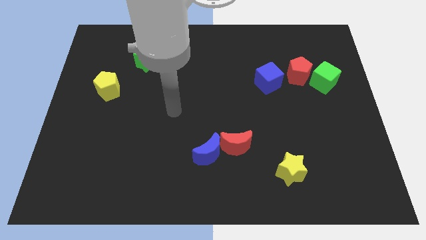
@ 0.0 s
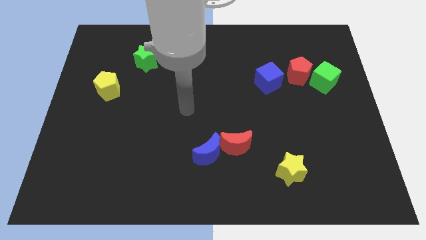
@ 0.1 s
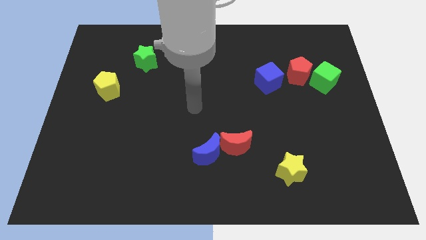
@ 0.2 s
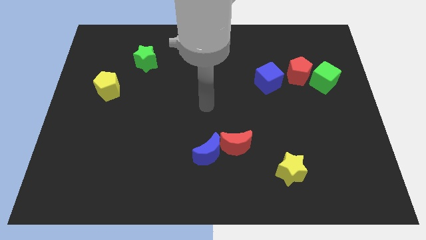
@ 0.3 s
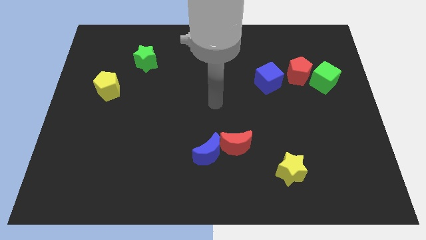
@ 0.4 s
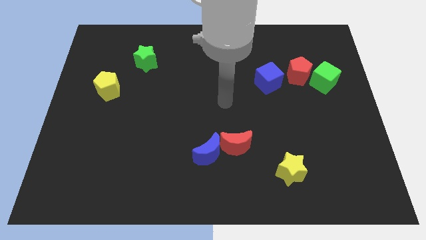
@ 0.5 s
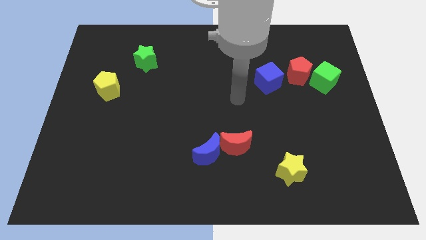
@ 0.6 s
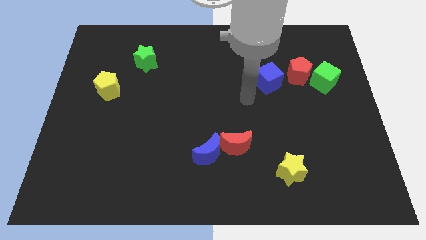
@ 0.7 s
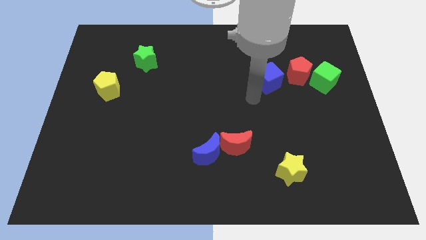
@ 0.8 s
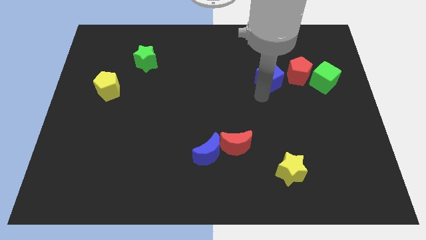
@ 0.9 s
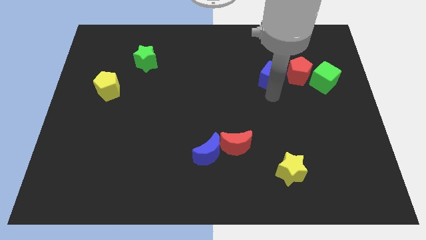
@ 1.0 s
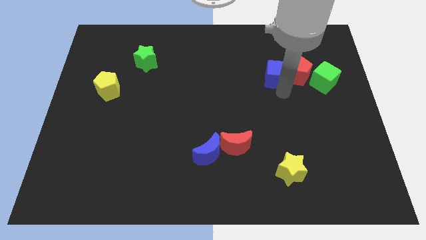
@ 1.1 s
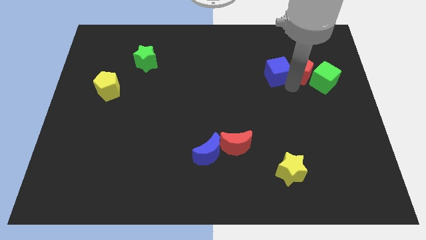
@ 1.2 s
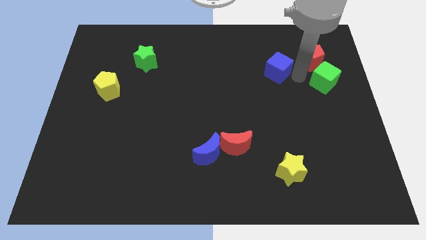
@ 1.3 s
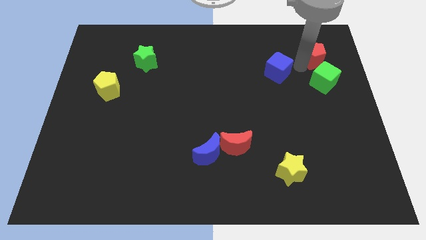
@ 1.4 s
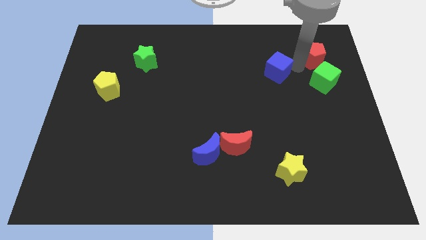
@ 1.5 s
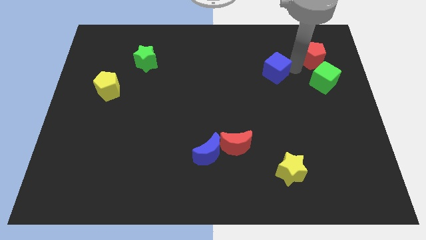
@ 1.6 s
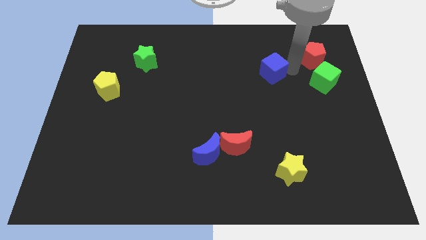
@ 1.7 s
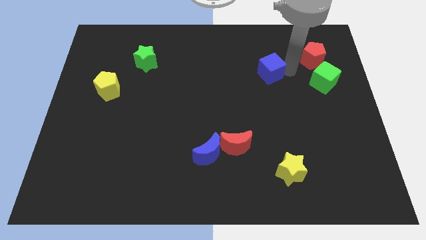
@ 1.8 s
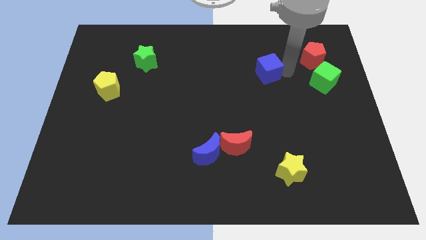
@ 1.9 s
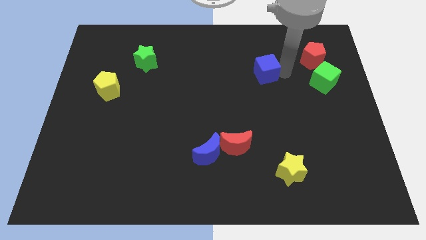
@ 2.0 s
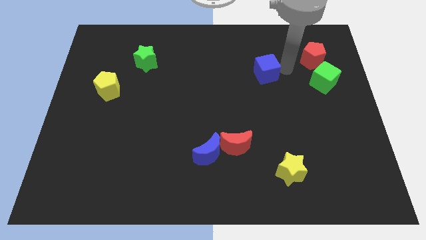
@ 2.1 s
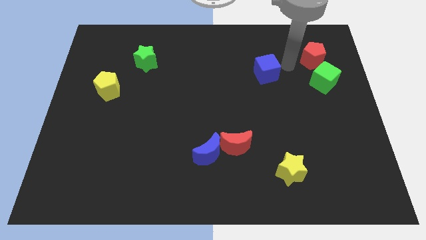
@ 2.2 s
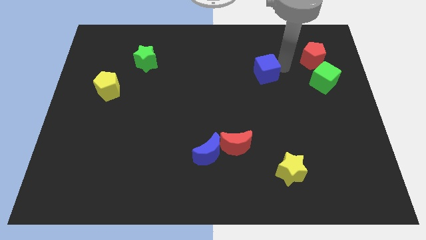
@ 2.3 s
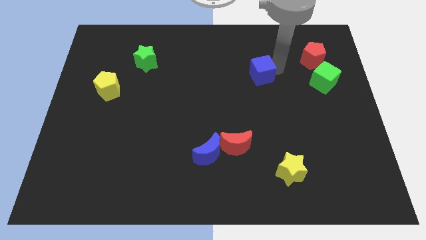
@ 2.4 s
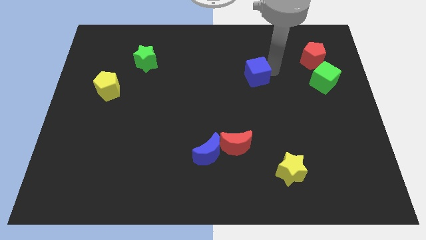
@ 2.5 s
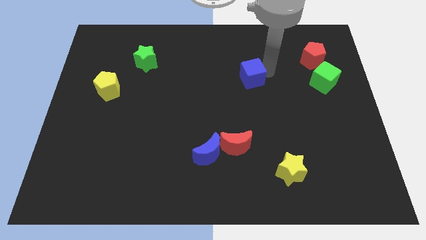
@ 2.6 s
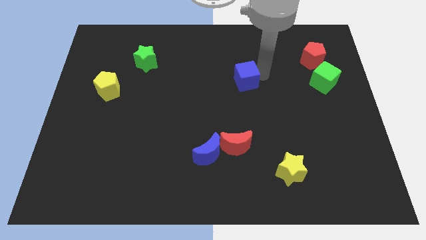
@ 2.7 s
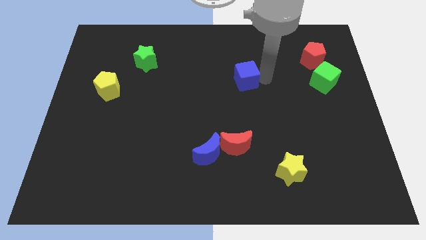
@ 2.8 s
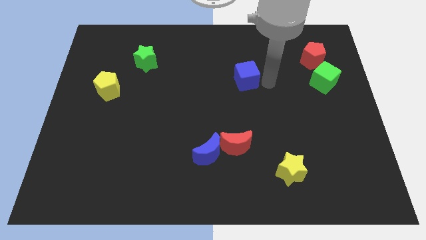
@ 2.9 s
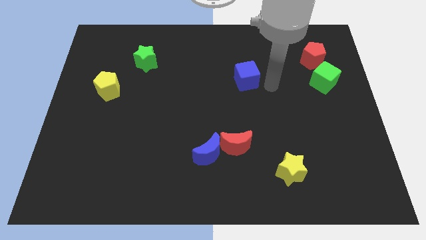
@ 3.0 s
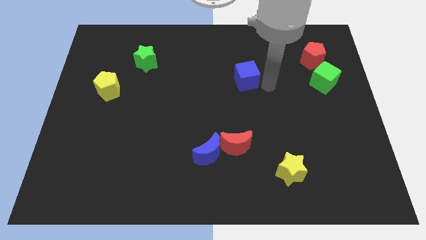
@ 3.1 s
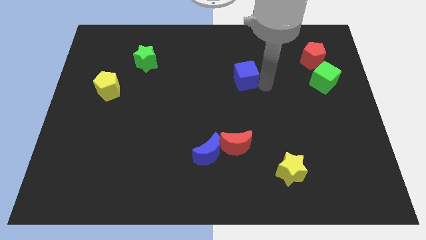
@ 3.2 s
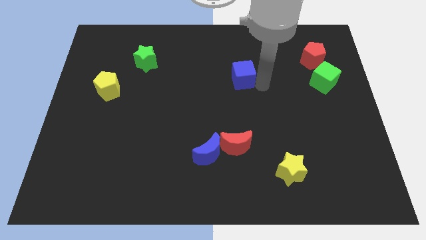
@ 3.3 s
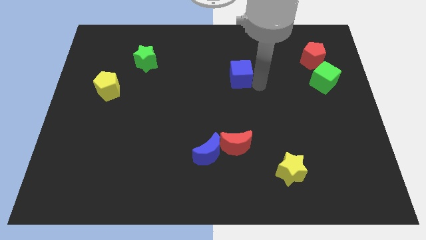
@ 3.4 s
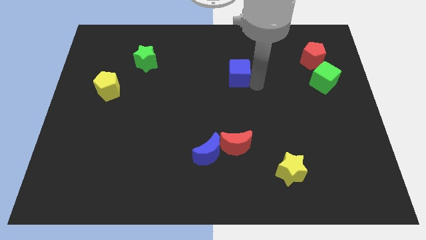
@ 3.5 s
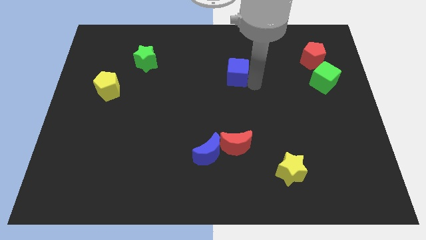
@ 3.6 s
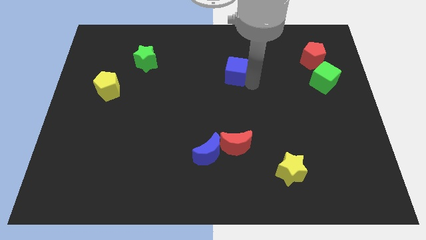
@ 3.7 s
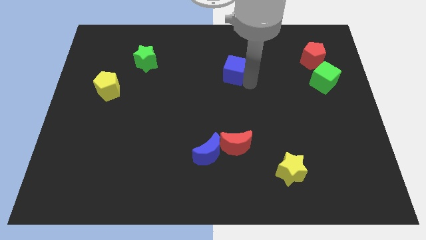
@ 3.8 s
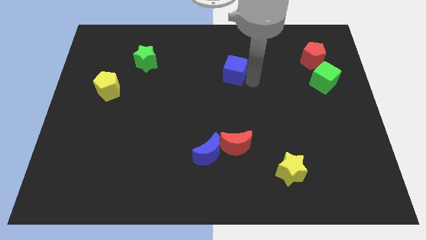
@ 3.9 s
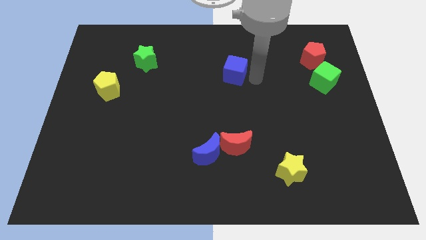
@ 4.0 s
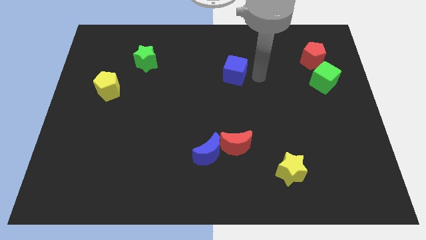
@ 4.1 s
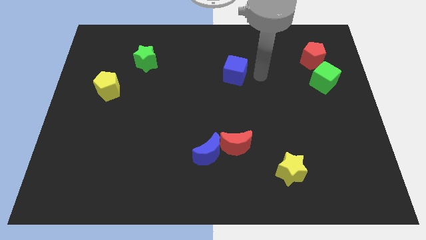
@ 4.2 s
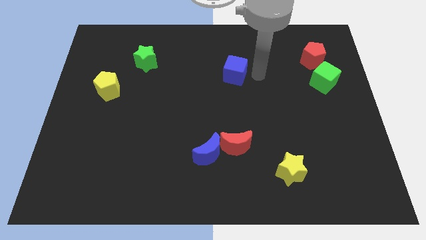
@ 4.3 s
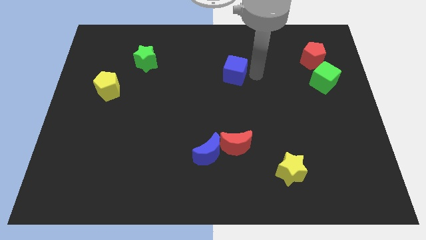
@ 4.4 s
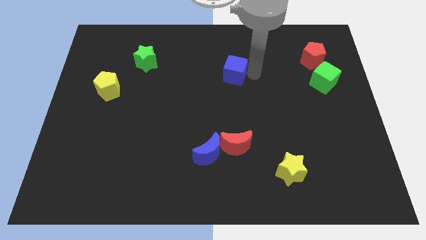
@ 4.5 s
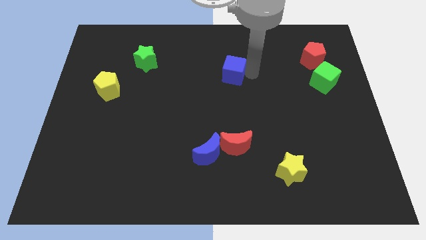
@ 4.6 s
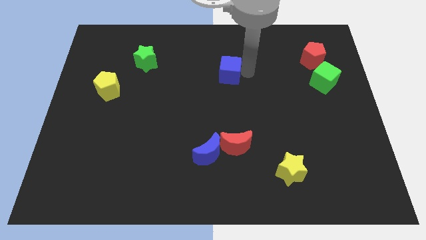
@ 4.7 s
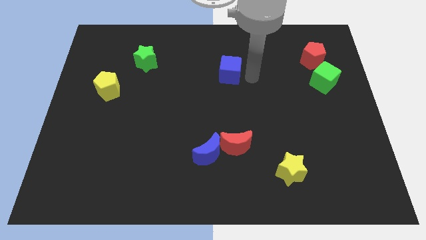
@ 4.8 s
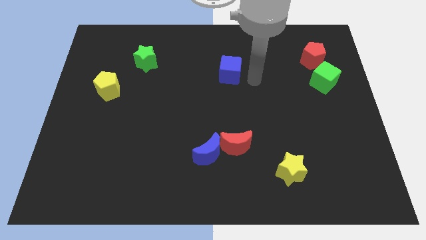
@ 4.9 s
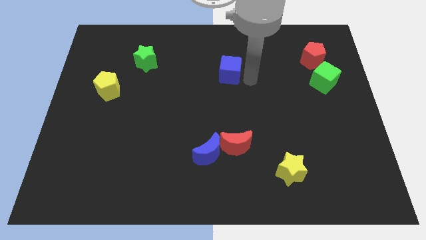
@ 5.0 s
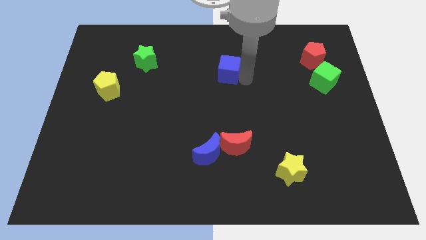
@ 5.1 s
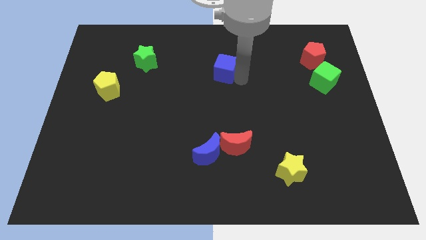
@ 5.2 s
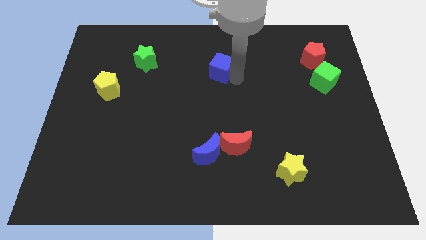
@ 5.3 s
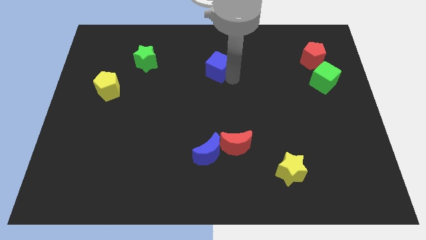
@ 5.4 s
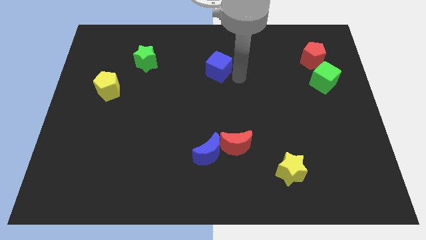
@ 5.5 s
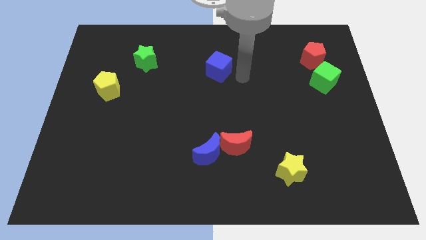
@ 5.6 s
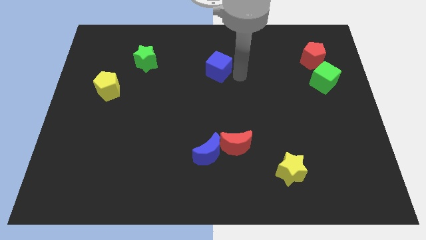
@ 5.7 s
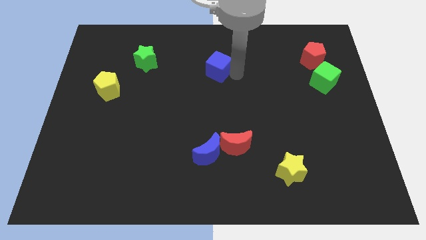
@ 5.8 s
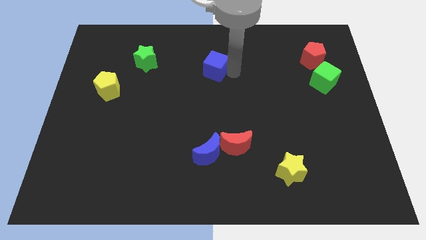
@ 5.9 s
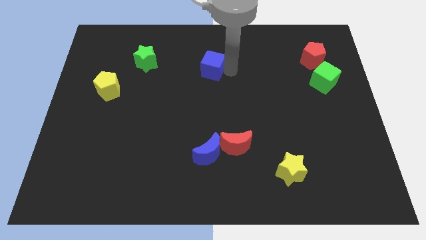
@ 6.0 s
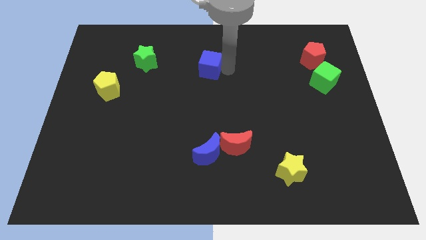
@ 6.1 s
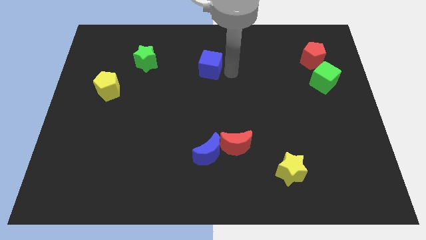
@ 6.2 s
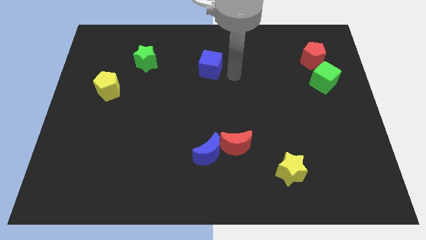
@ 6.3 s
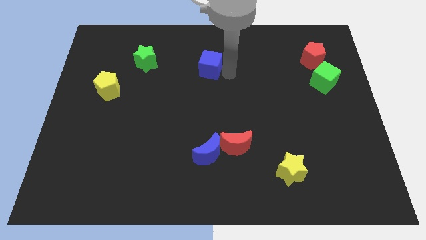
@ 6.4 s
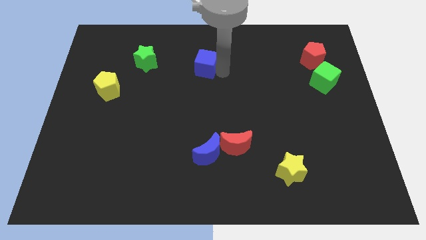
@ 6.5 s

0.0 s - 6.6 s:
slide the blue cube to the right side of the green star

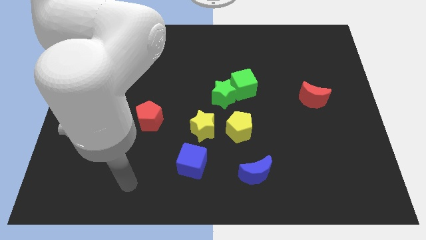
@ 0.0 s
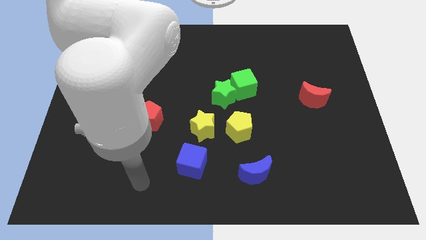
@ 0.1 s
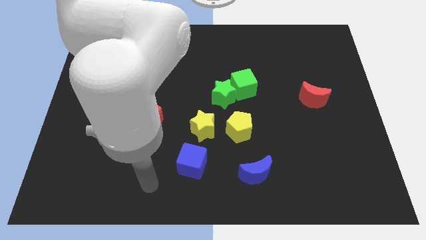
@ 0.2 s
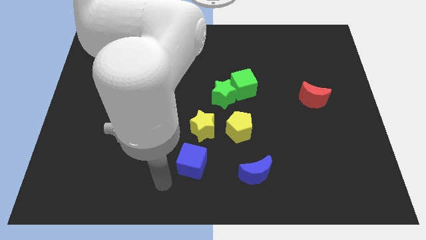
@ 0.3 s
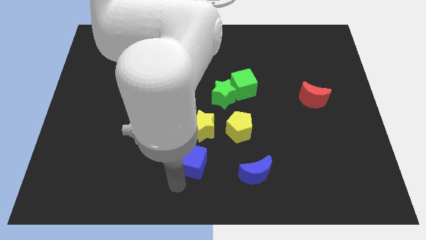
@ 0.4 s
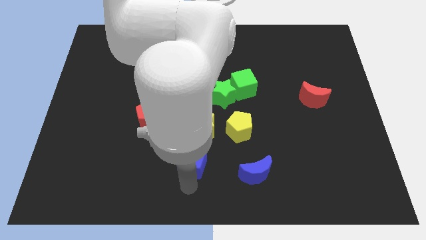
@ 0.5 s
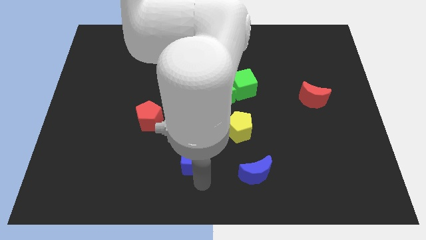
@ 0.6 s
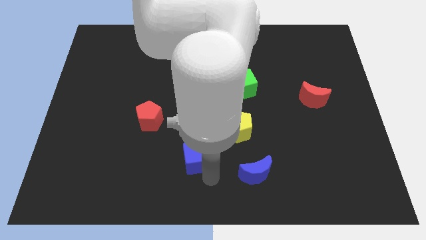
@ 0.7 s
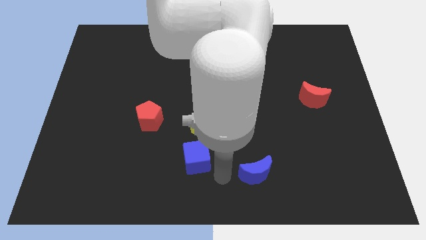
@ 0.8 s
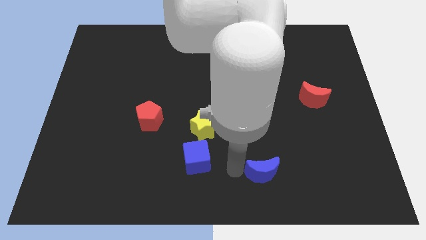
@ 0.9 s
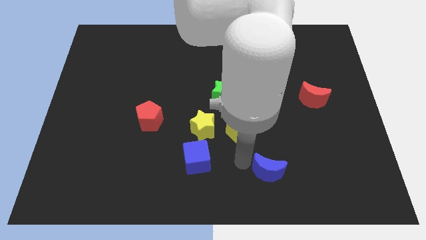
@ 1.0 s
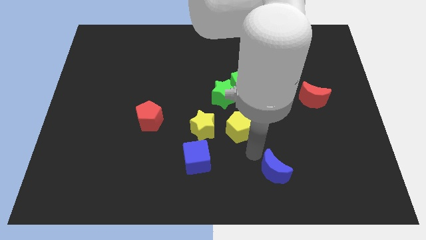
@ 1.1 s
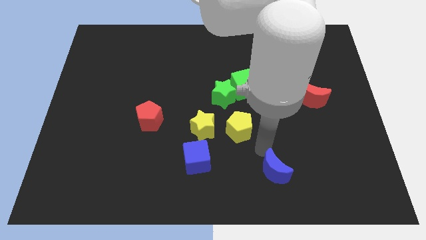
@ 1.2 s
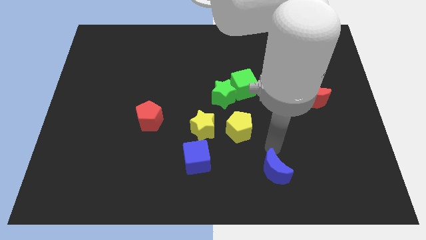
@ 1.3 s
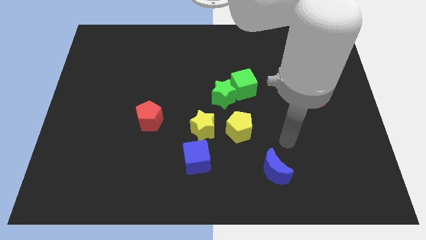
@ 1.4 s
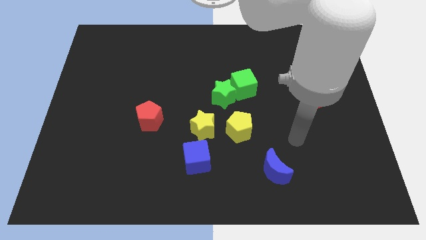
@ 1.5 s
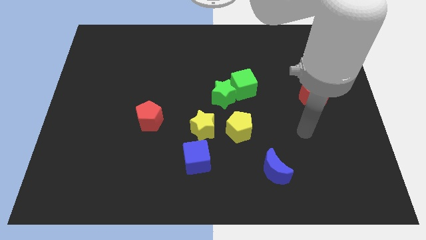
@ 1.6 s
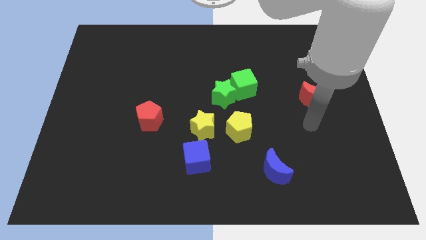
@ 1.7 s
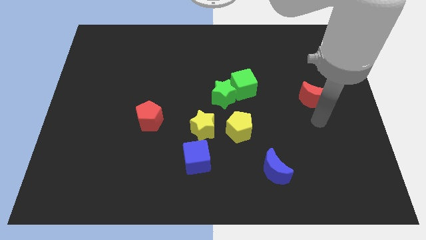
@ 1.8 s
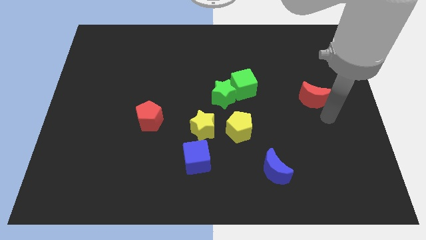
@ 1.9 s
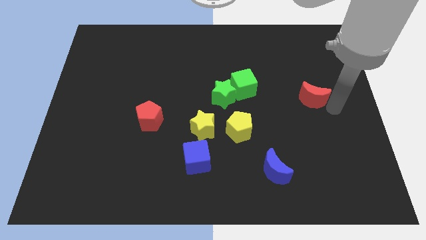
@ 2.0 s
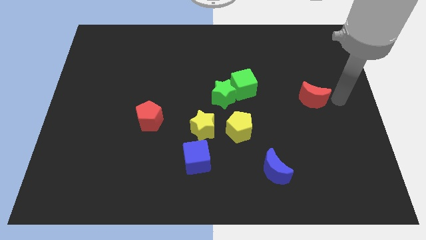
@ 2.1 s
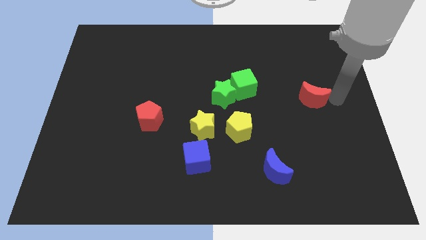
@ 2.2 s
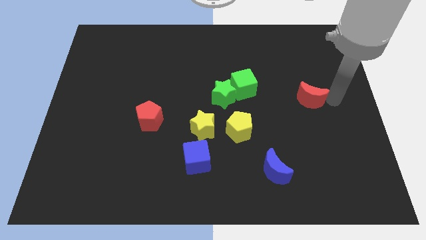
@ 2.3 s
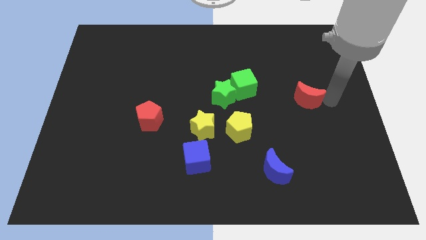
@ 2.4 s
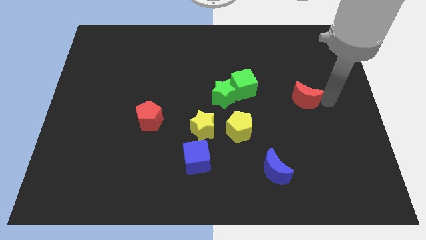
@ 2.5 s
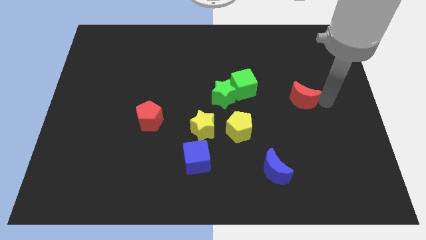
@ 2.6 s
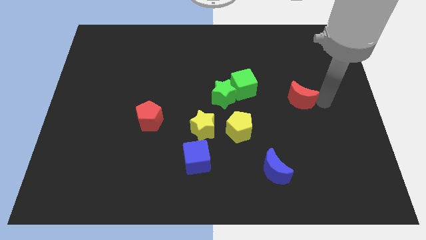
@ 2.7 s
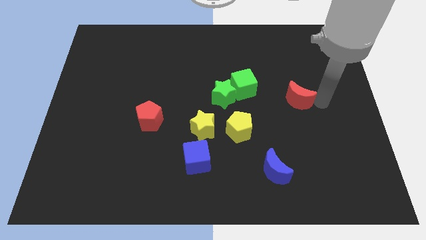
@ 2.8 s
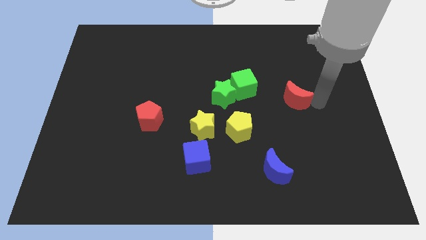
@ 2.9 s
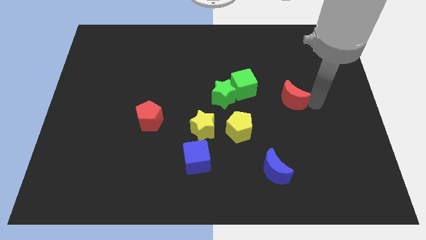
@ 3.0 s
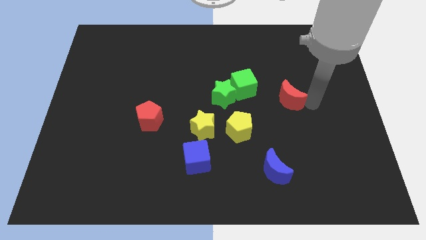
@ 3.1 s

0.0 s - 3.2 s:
push the red moon to the right of the green star
